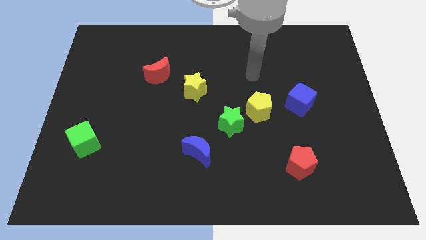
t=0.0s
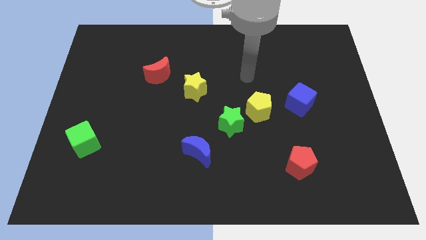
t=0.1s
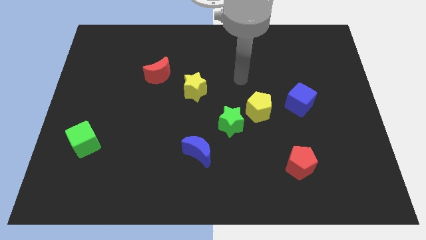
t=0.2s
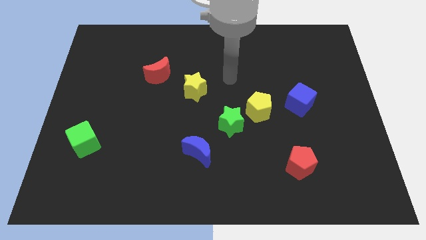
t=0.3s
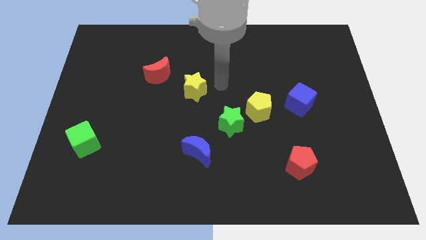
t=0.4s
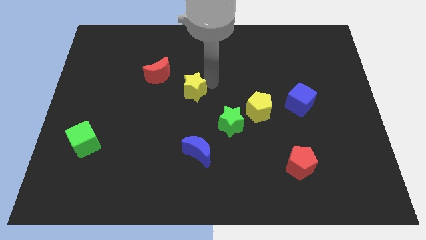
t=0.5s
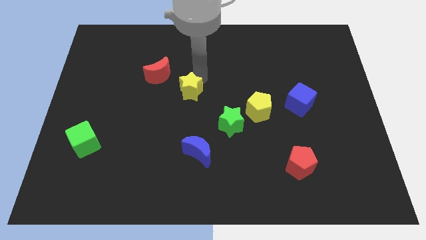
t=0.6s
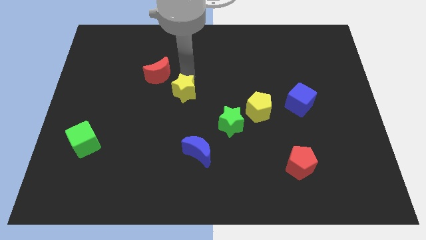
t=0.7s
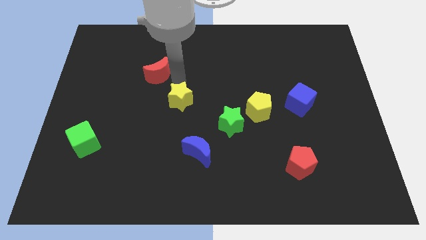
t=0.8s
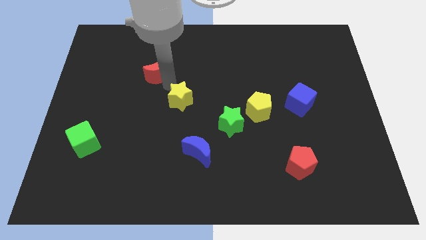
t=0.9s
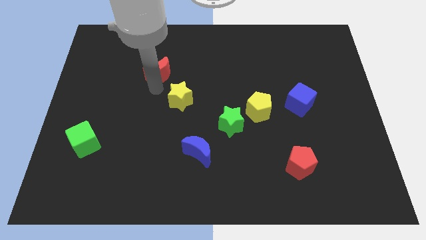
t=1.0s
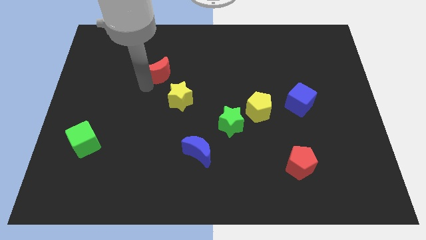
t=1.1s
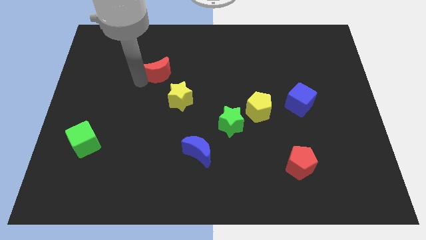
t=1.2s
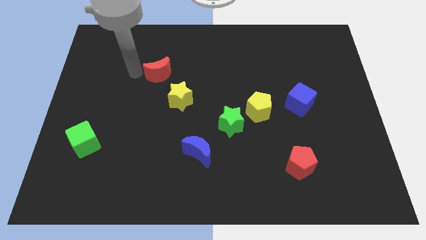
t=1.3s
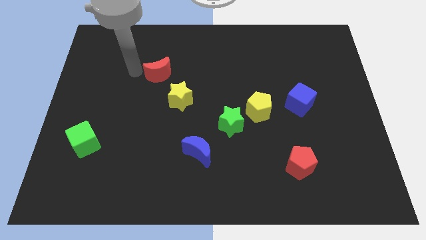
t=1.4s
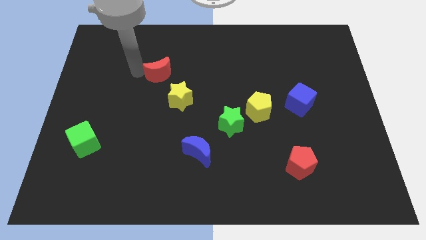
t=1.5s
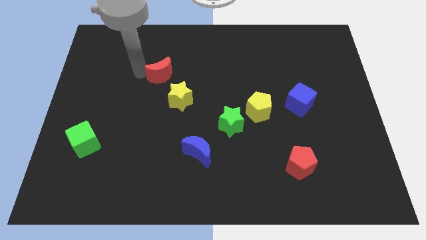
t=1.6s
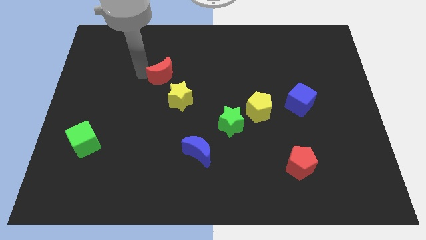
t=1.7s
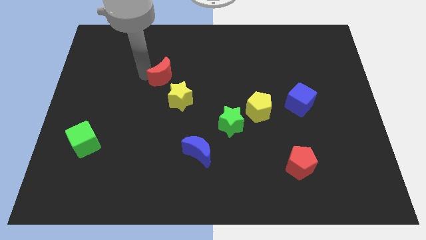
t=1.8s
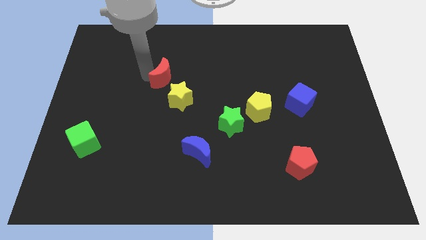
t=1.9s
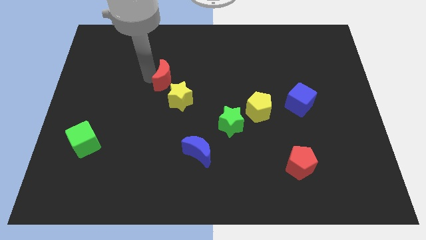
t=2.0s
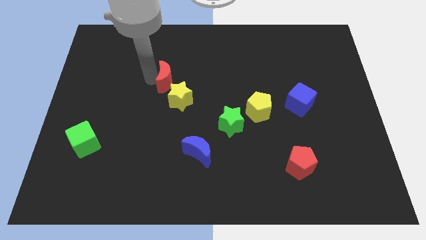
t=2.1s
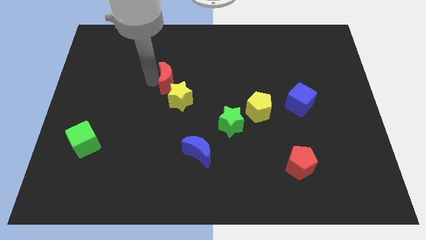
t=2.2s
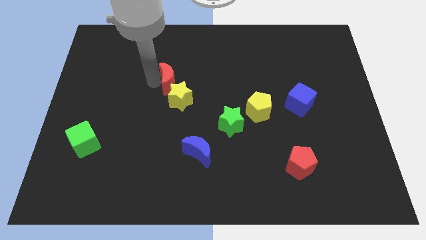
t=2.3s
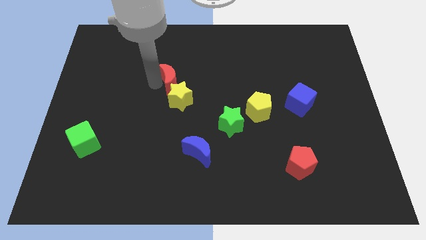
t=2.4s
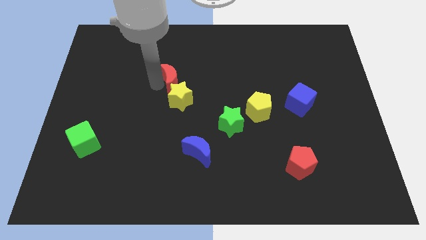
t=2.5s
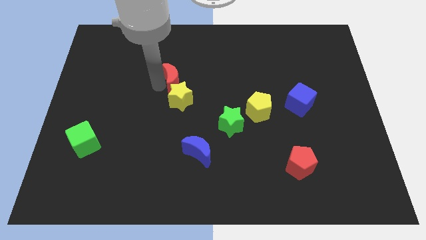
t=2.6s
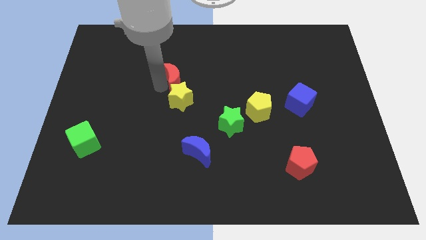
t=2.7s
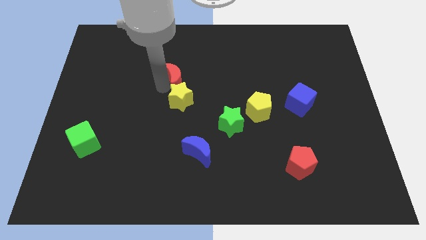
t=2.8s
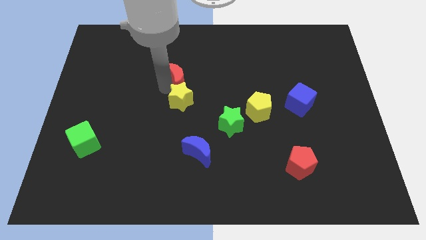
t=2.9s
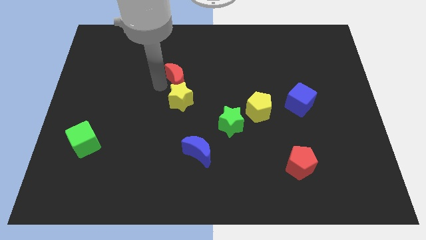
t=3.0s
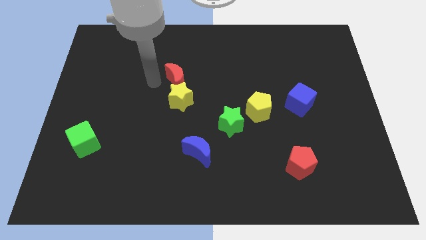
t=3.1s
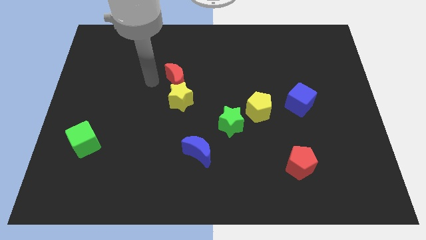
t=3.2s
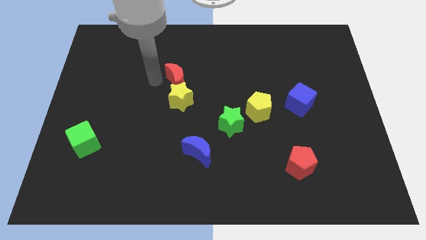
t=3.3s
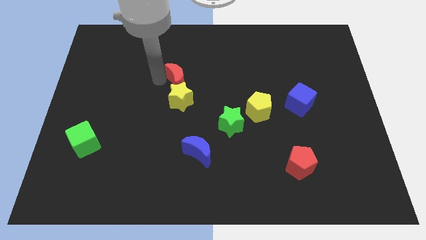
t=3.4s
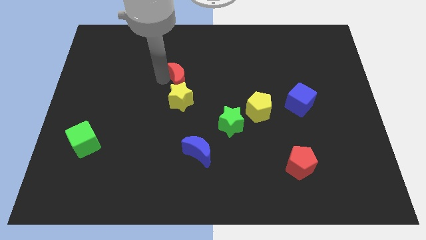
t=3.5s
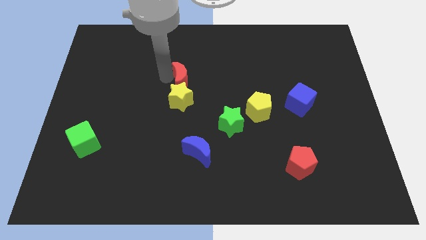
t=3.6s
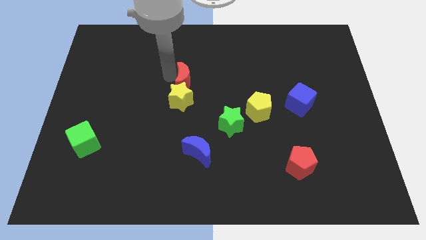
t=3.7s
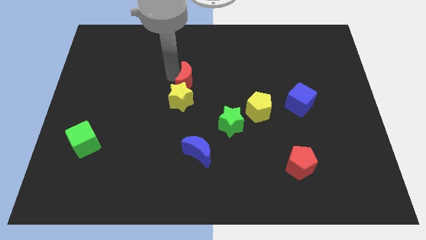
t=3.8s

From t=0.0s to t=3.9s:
slightly slide the red moon right

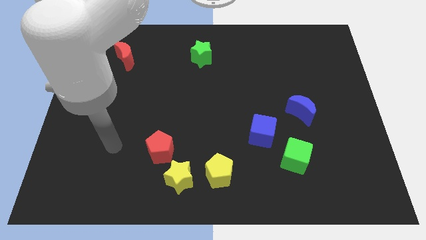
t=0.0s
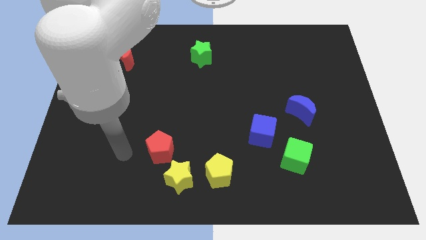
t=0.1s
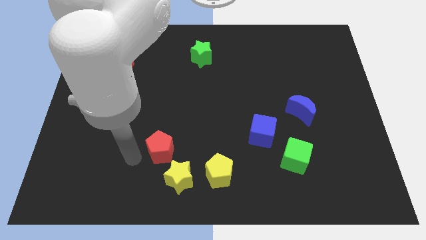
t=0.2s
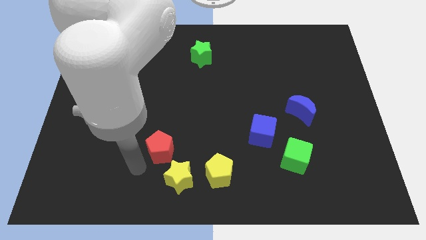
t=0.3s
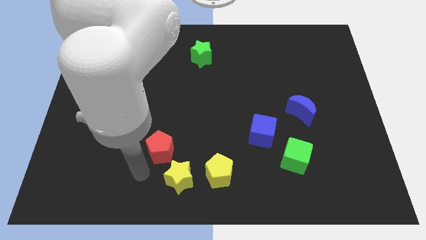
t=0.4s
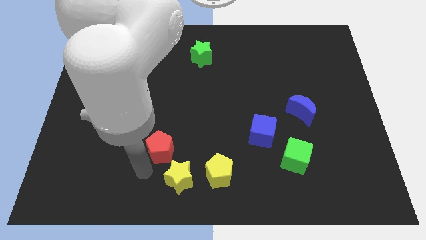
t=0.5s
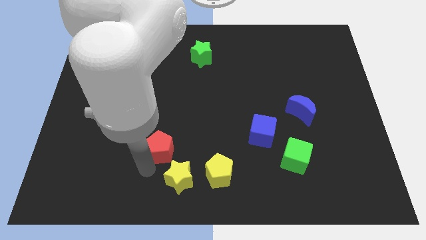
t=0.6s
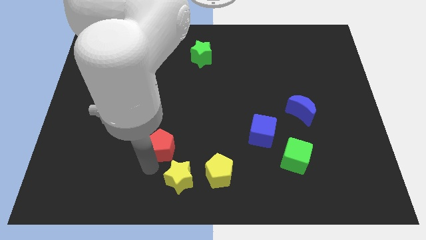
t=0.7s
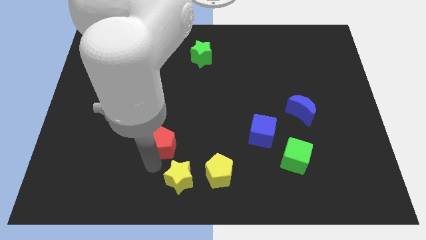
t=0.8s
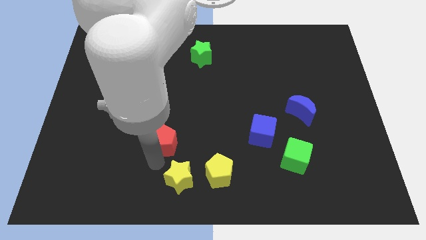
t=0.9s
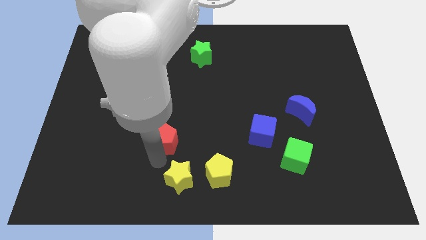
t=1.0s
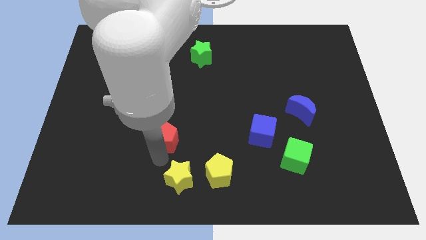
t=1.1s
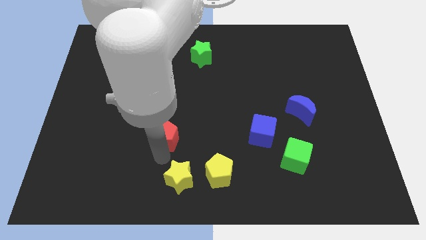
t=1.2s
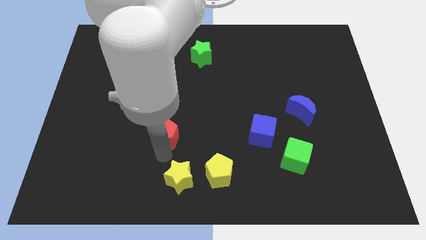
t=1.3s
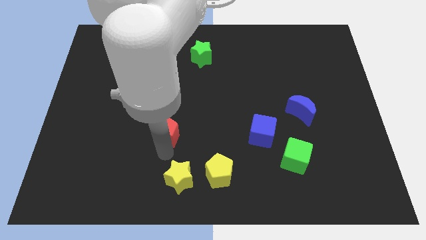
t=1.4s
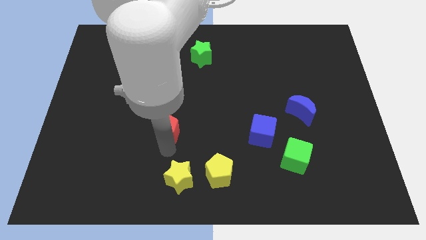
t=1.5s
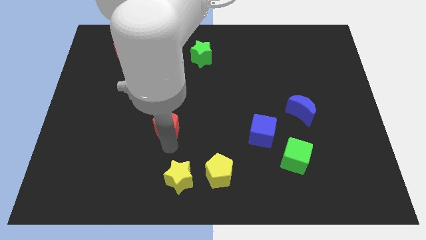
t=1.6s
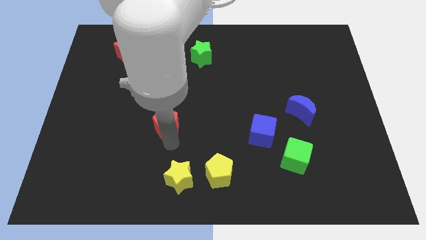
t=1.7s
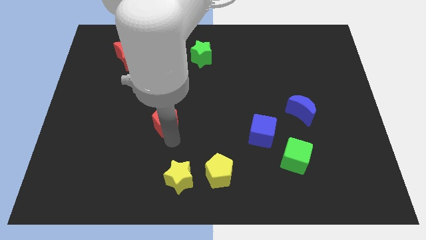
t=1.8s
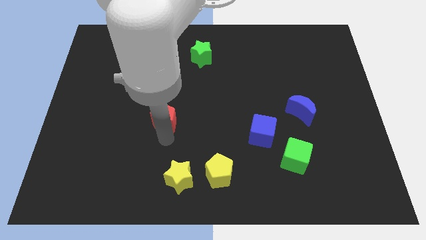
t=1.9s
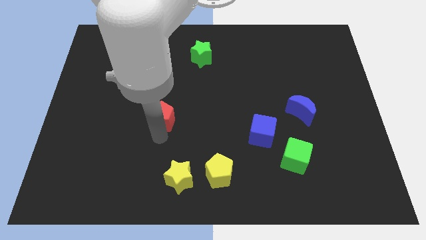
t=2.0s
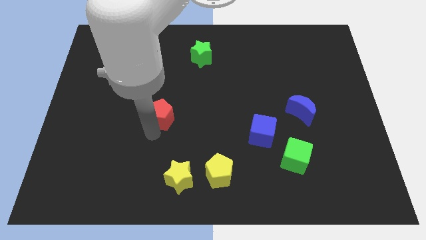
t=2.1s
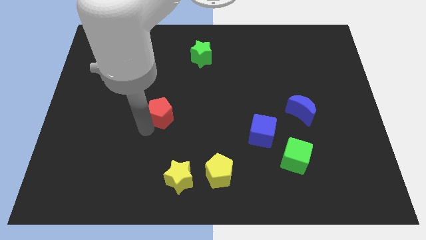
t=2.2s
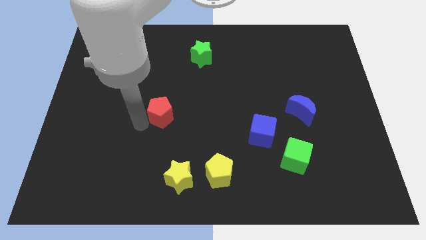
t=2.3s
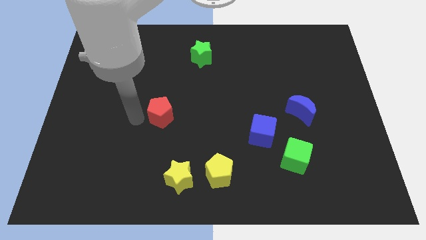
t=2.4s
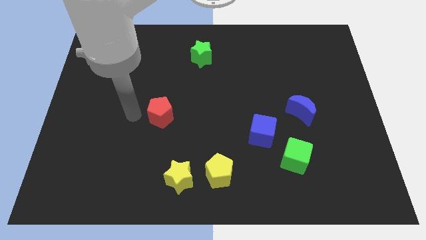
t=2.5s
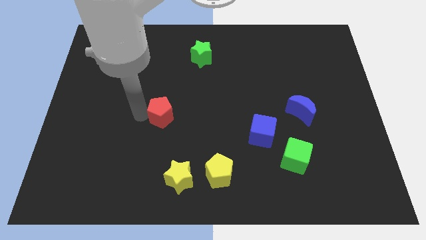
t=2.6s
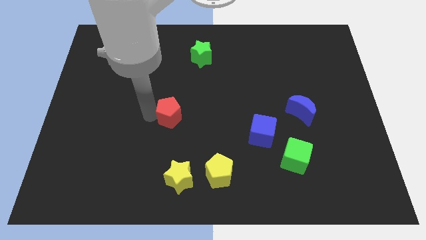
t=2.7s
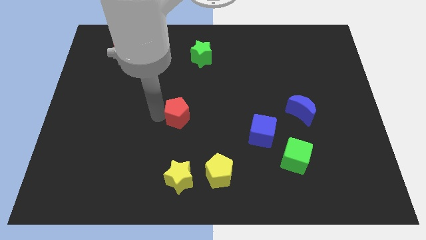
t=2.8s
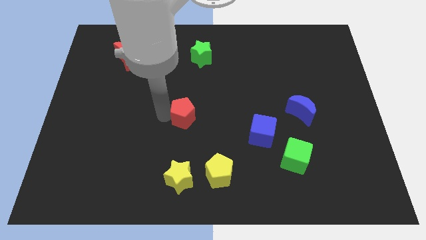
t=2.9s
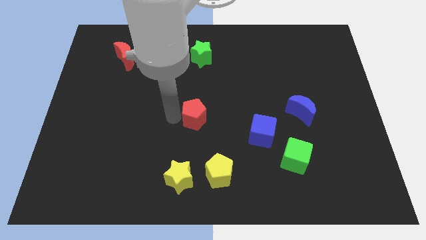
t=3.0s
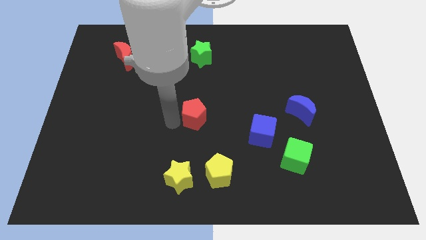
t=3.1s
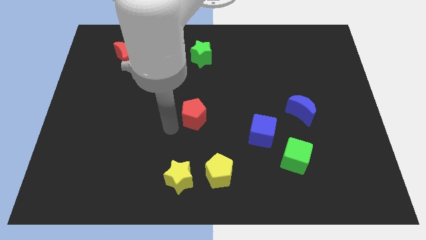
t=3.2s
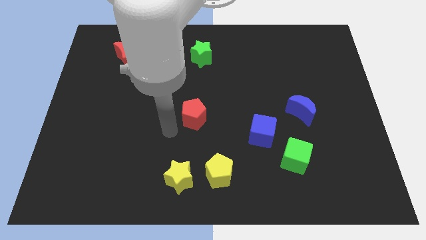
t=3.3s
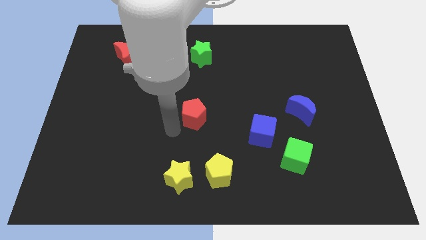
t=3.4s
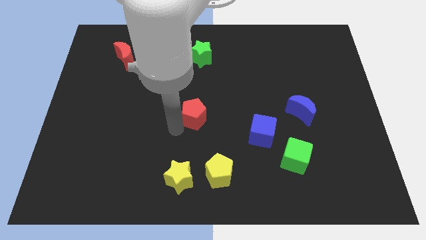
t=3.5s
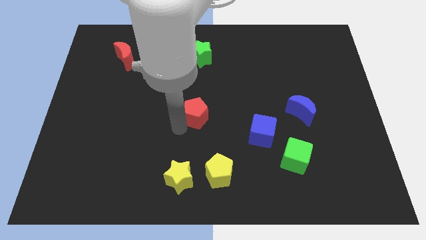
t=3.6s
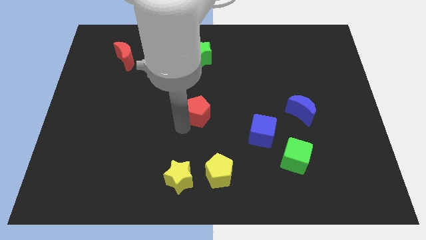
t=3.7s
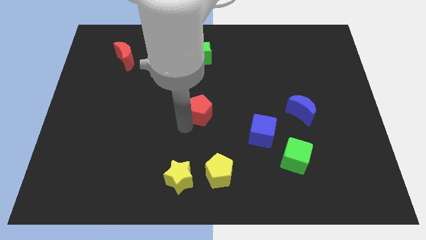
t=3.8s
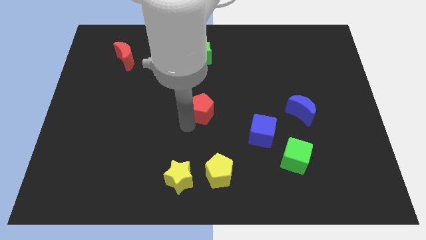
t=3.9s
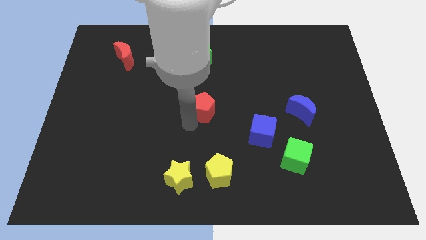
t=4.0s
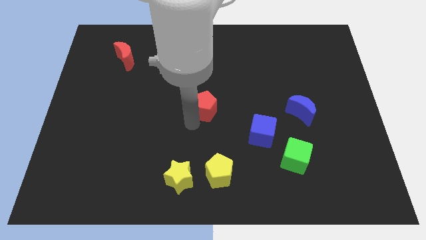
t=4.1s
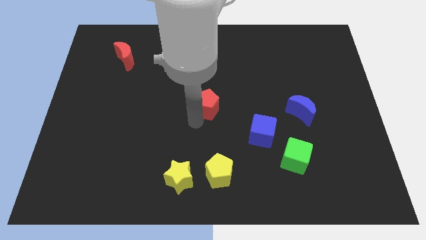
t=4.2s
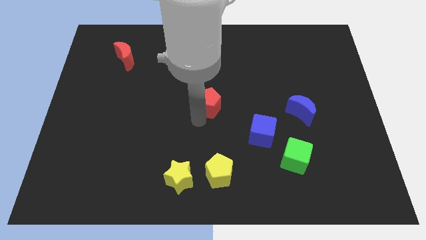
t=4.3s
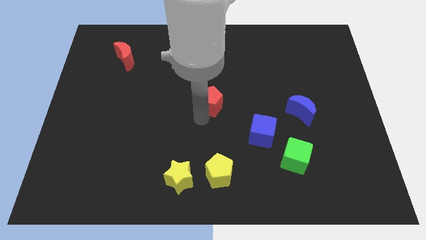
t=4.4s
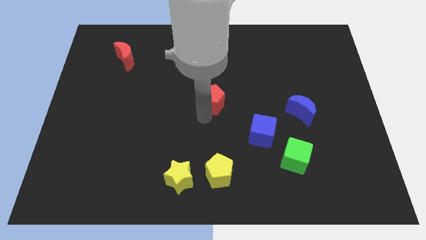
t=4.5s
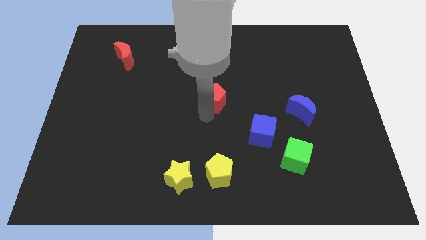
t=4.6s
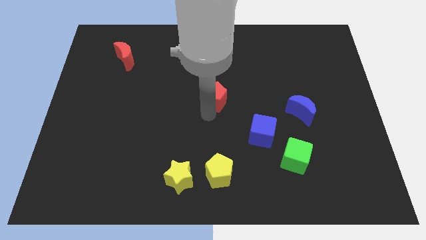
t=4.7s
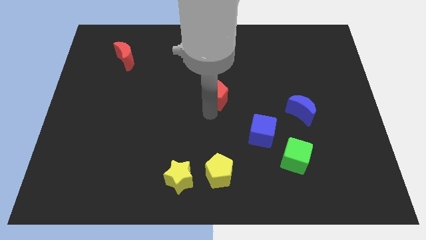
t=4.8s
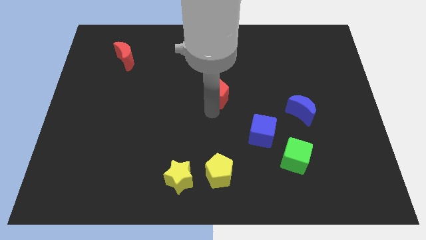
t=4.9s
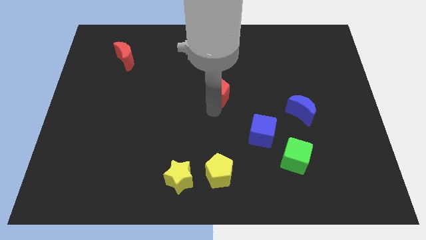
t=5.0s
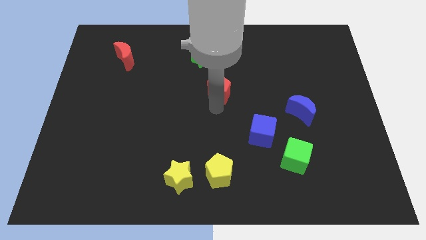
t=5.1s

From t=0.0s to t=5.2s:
slide the red pentagon upwards and right
